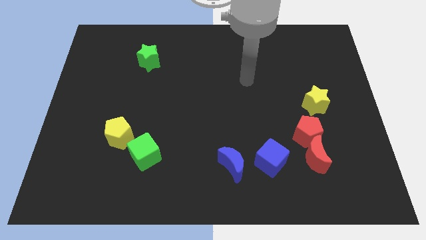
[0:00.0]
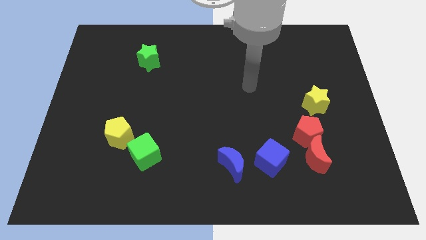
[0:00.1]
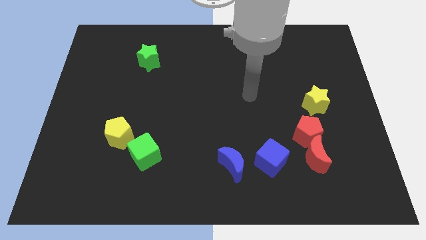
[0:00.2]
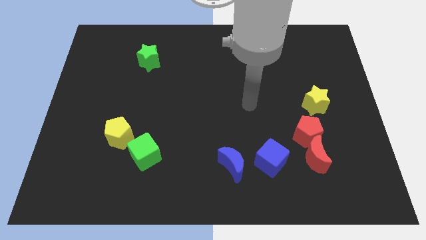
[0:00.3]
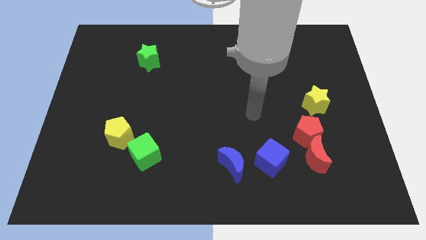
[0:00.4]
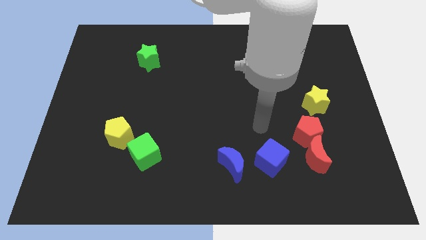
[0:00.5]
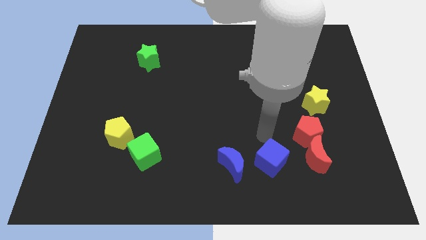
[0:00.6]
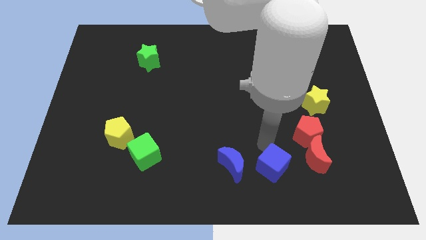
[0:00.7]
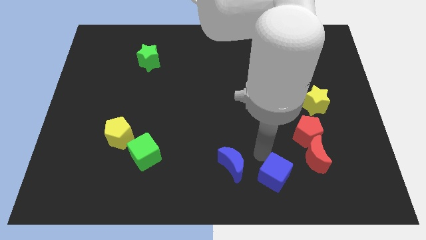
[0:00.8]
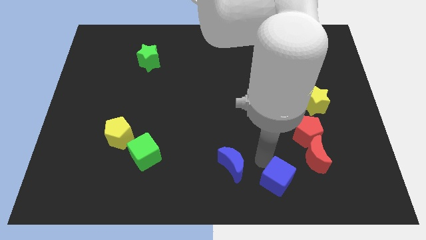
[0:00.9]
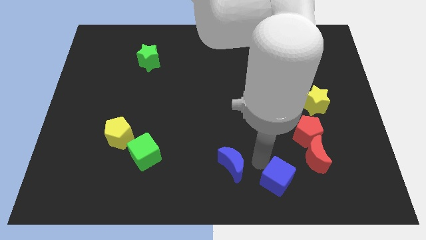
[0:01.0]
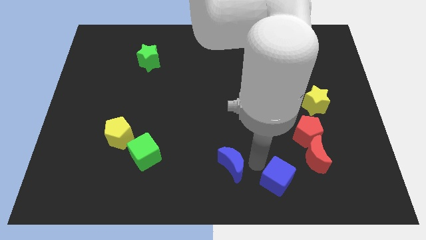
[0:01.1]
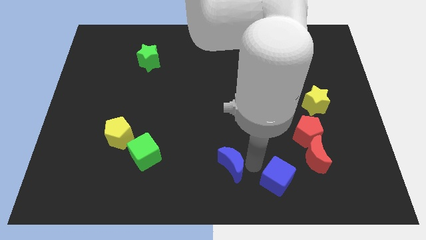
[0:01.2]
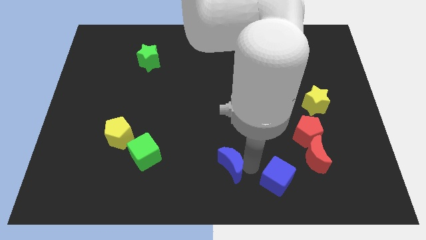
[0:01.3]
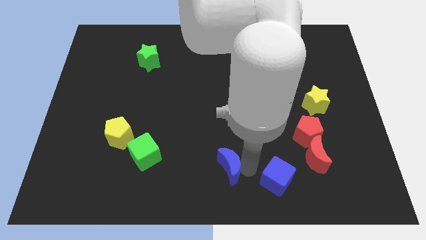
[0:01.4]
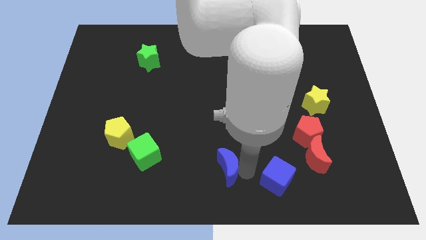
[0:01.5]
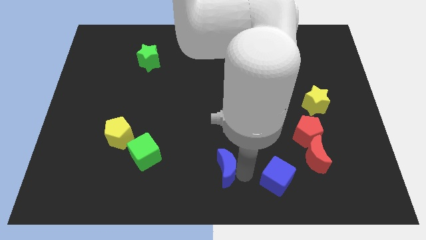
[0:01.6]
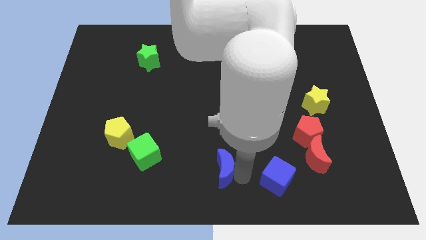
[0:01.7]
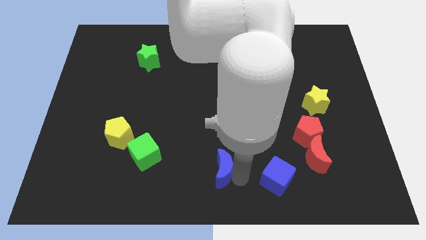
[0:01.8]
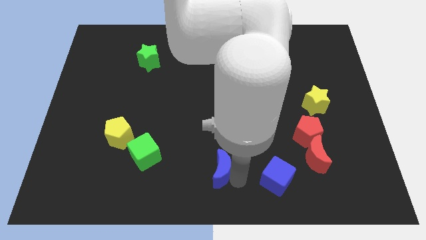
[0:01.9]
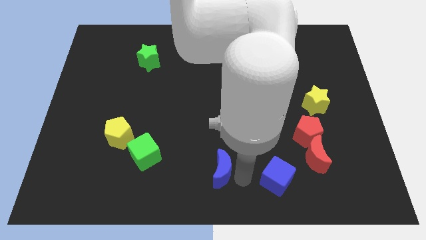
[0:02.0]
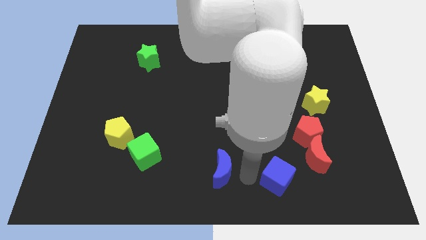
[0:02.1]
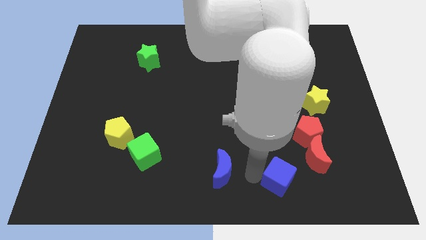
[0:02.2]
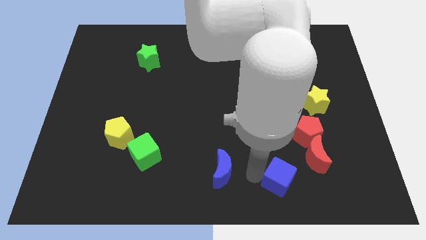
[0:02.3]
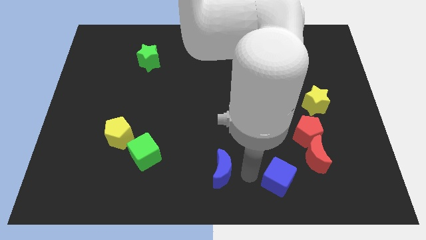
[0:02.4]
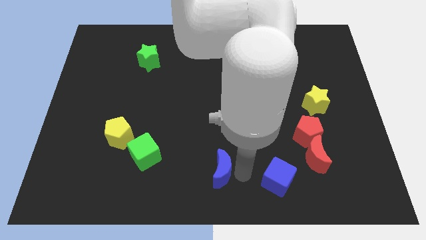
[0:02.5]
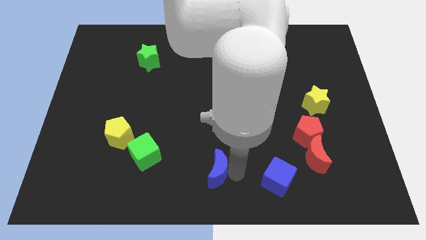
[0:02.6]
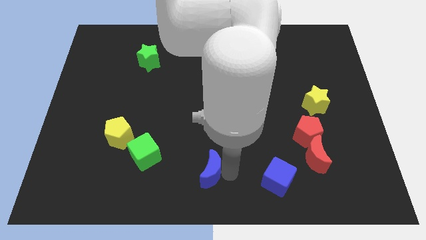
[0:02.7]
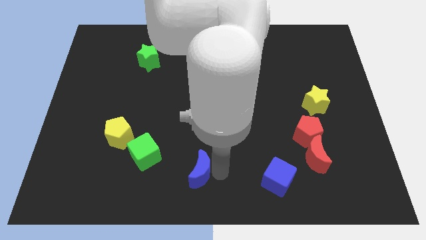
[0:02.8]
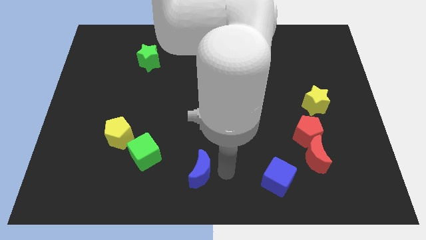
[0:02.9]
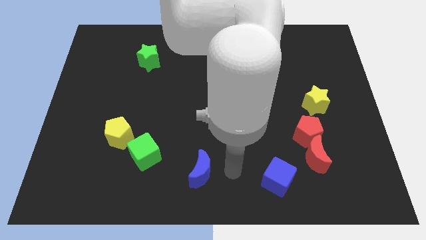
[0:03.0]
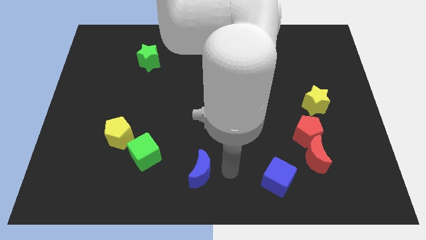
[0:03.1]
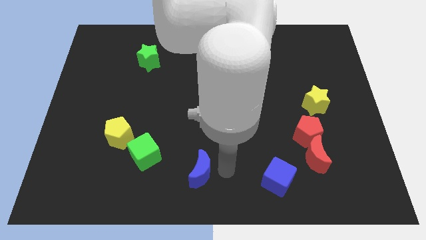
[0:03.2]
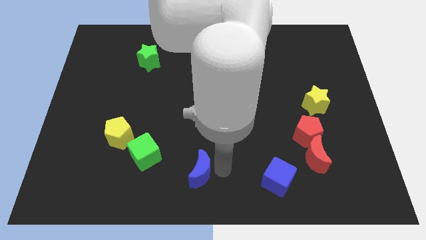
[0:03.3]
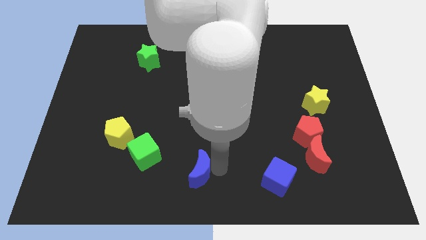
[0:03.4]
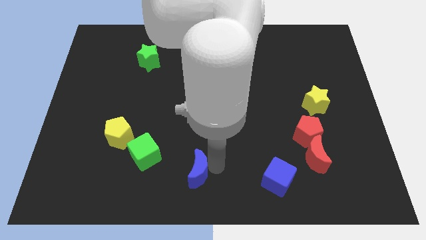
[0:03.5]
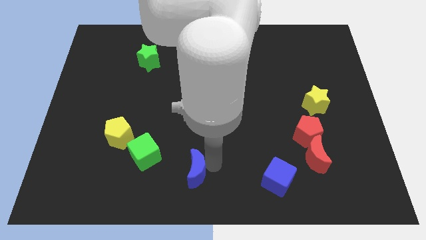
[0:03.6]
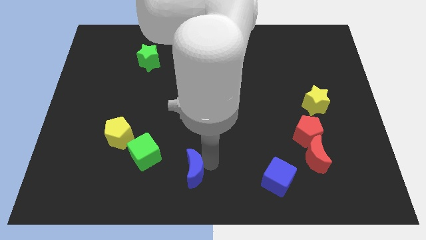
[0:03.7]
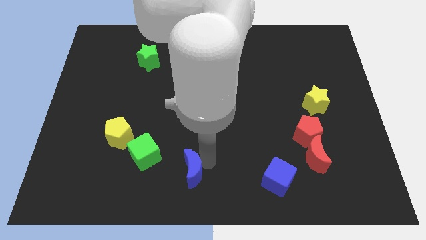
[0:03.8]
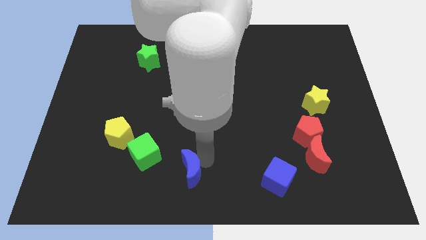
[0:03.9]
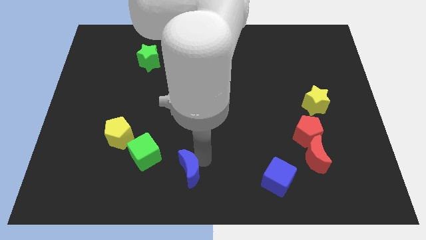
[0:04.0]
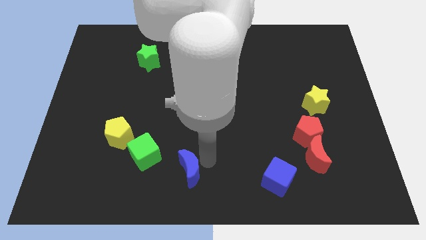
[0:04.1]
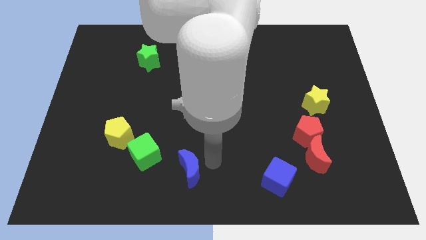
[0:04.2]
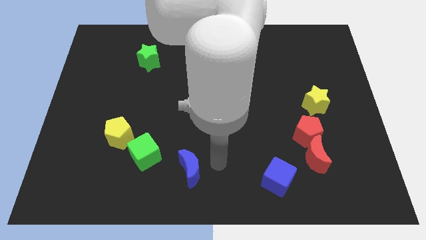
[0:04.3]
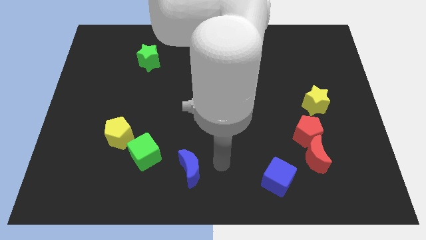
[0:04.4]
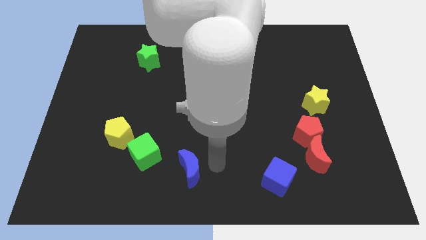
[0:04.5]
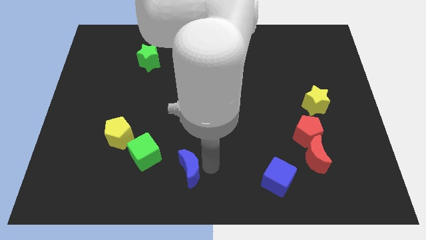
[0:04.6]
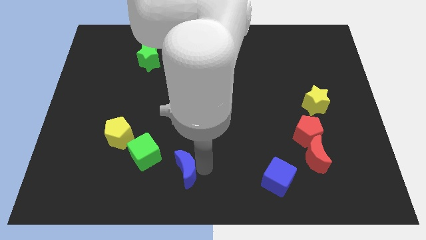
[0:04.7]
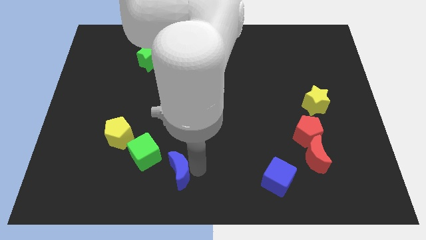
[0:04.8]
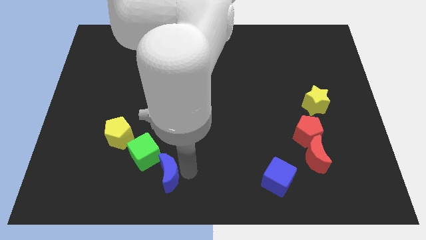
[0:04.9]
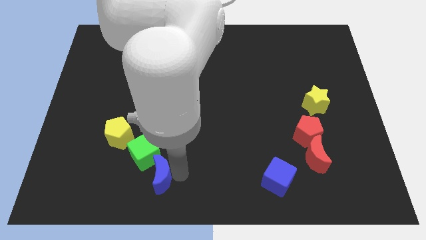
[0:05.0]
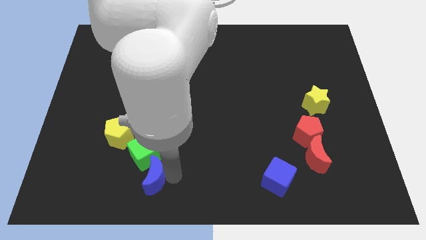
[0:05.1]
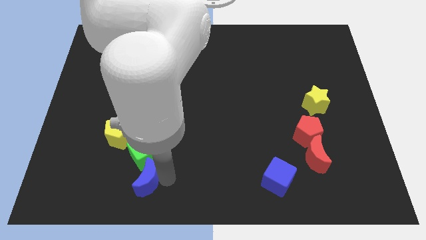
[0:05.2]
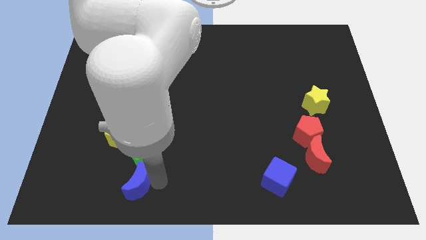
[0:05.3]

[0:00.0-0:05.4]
slide the blue moon diagonally down and to the left of the green cube

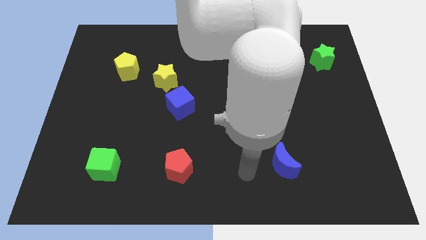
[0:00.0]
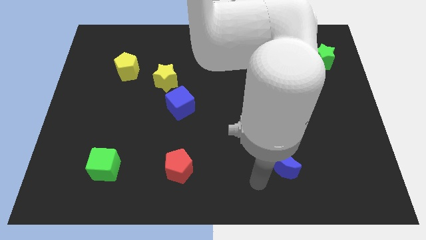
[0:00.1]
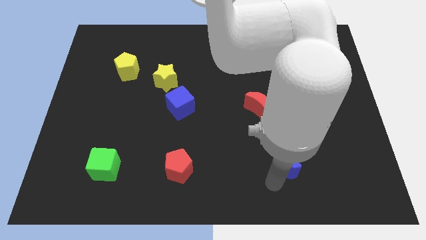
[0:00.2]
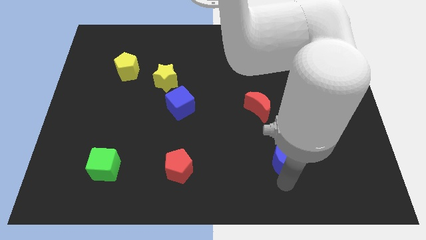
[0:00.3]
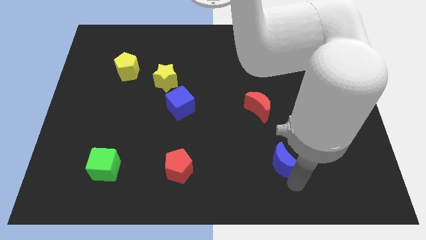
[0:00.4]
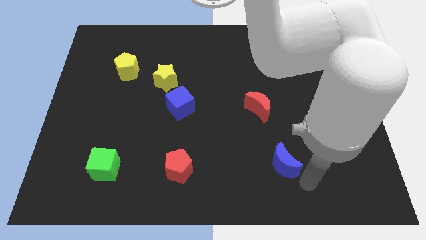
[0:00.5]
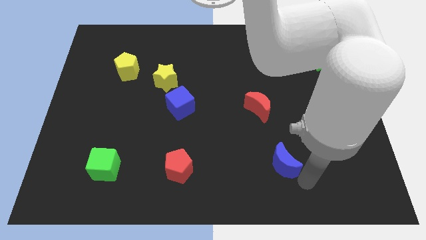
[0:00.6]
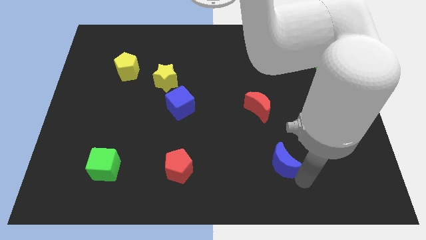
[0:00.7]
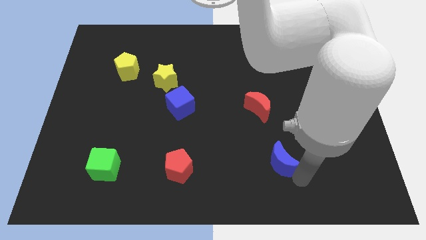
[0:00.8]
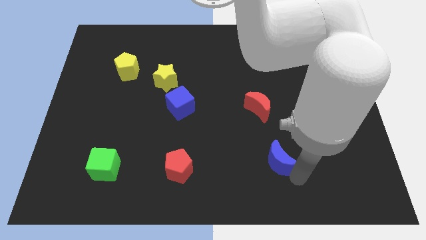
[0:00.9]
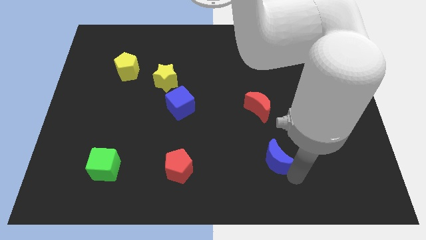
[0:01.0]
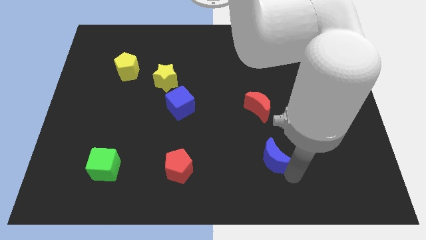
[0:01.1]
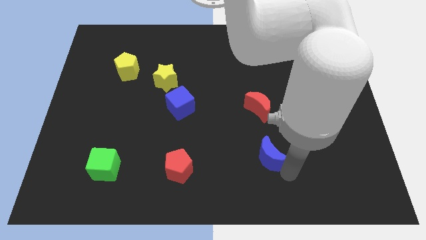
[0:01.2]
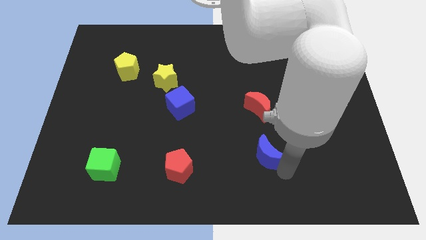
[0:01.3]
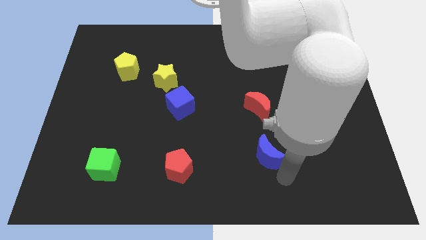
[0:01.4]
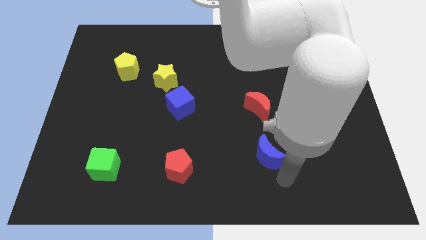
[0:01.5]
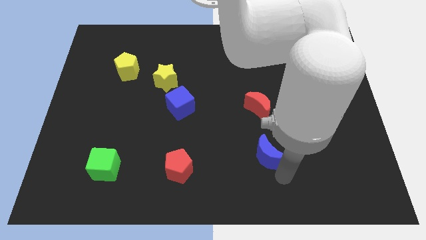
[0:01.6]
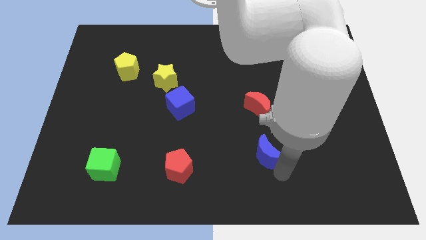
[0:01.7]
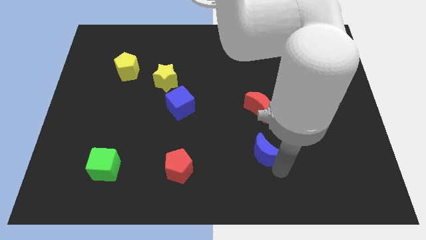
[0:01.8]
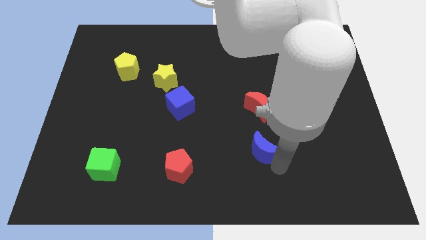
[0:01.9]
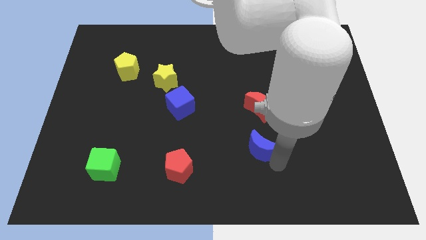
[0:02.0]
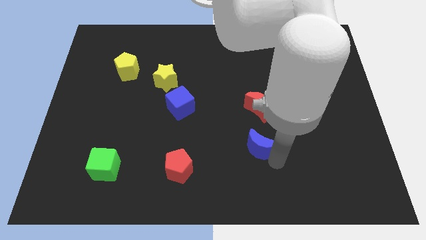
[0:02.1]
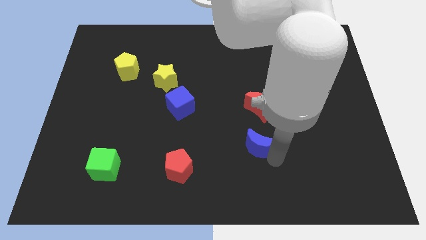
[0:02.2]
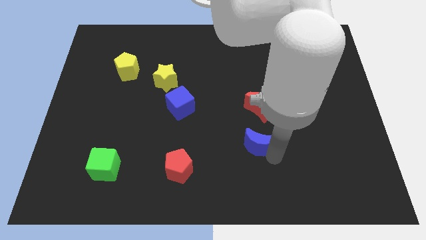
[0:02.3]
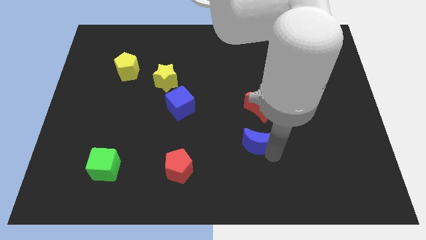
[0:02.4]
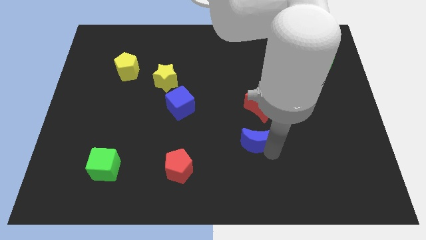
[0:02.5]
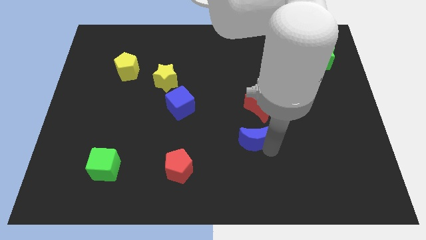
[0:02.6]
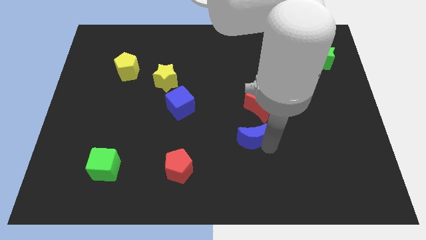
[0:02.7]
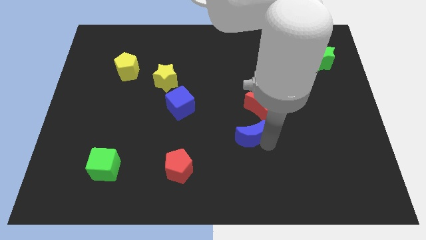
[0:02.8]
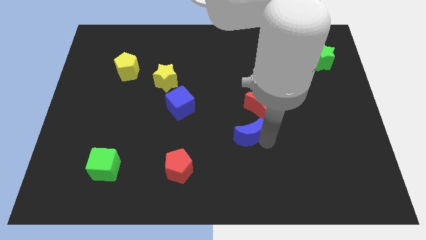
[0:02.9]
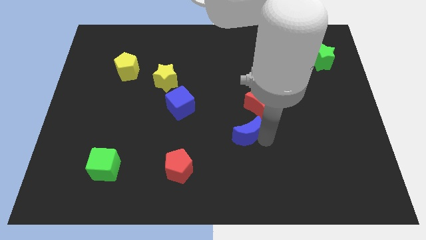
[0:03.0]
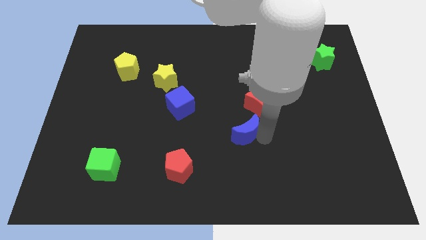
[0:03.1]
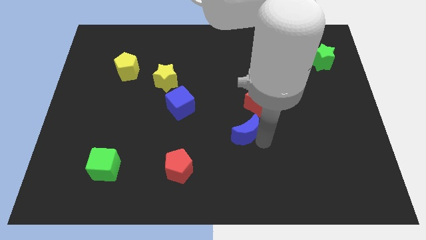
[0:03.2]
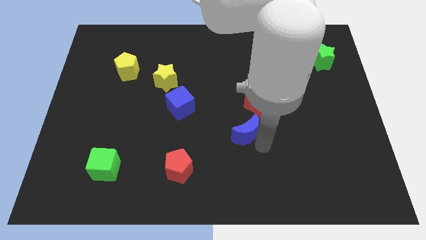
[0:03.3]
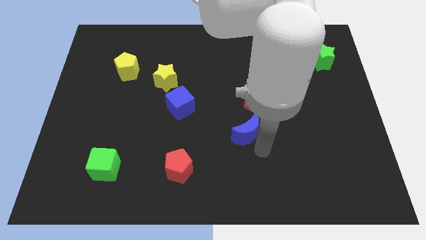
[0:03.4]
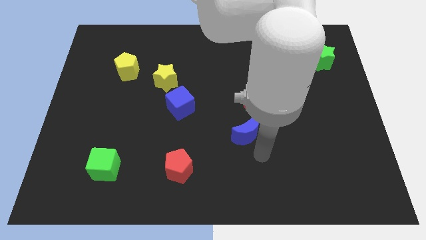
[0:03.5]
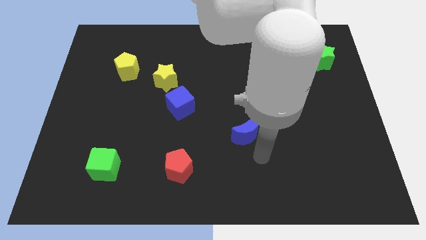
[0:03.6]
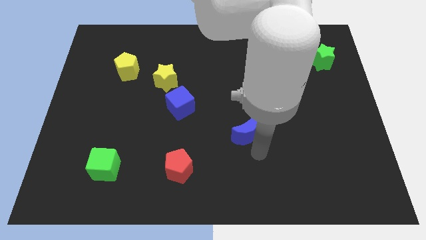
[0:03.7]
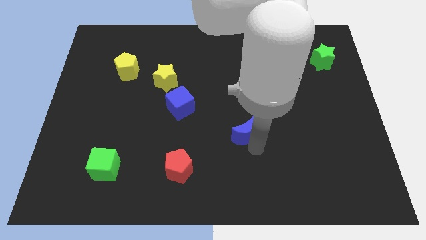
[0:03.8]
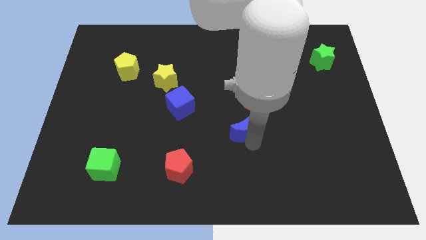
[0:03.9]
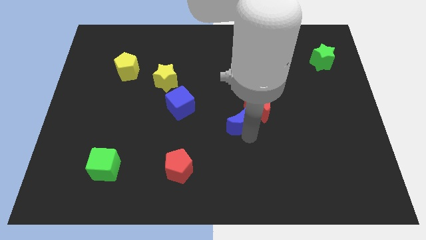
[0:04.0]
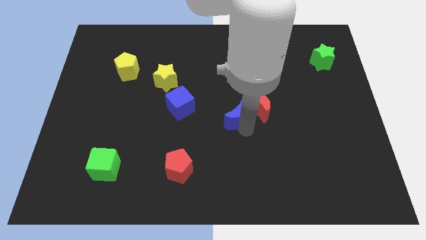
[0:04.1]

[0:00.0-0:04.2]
put the blue moon right of the blue cube
